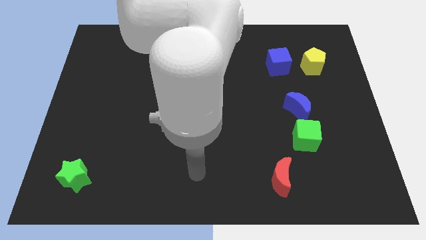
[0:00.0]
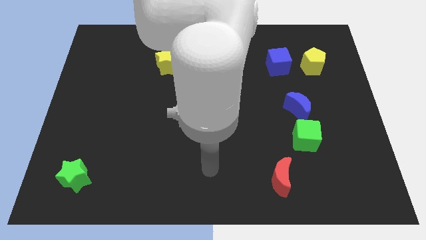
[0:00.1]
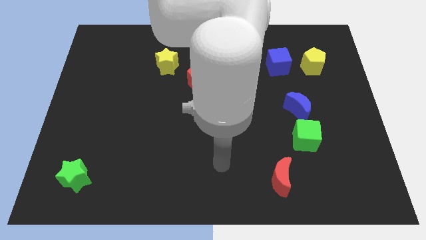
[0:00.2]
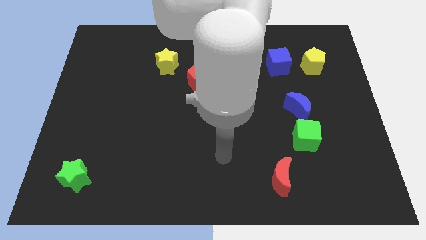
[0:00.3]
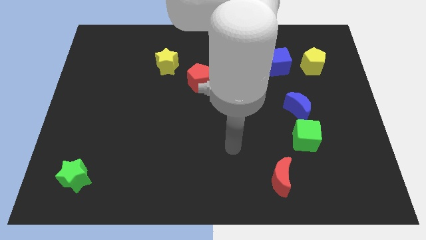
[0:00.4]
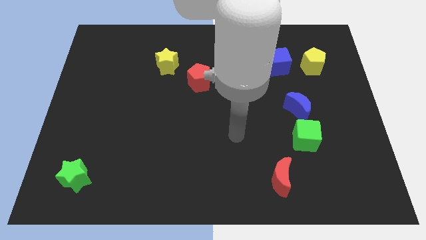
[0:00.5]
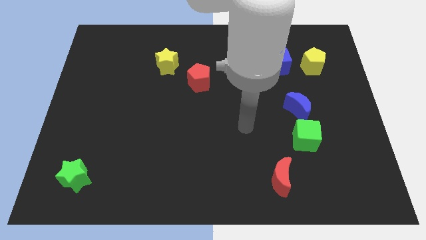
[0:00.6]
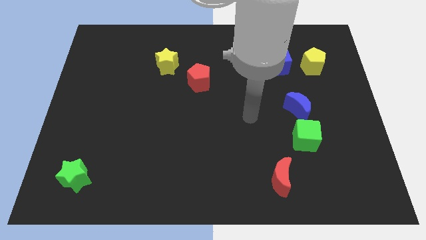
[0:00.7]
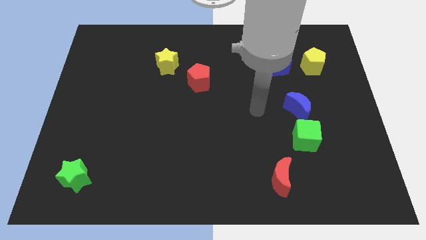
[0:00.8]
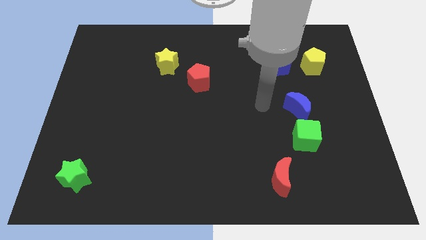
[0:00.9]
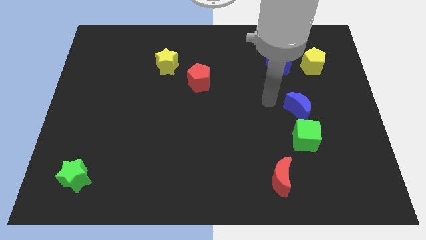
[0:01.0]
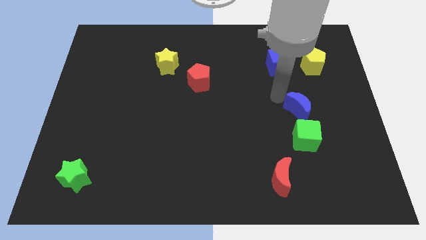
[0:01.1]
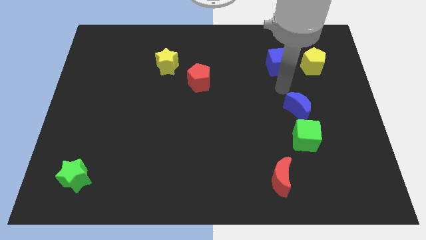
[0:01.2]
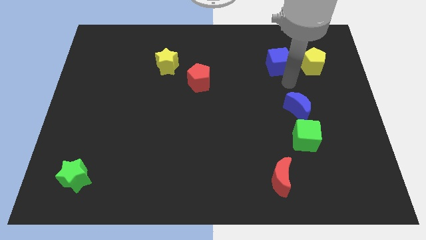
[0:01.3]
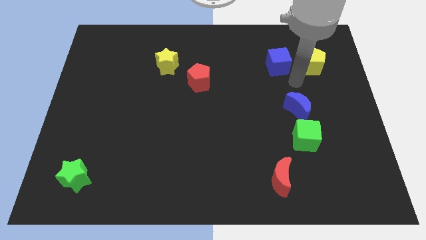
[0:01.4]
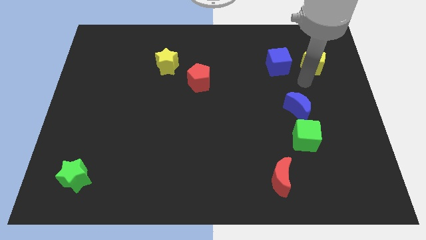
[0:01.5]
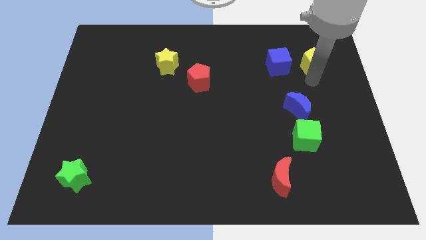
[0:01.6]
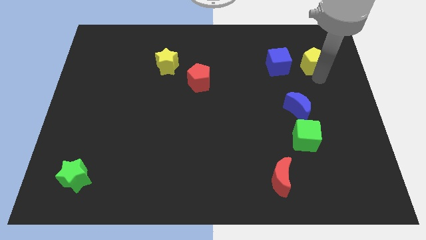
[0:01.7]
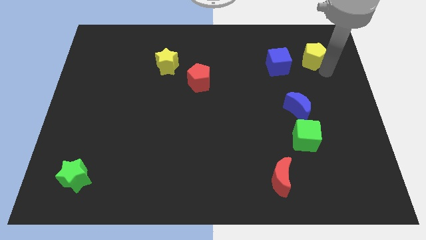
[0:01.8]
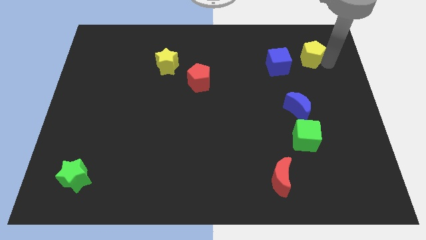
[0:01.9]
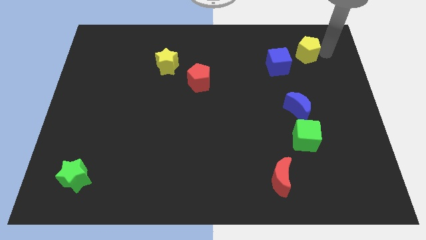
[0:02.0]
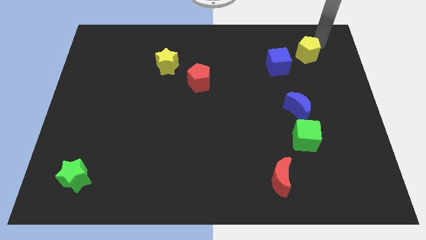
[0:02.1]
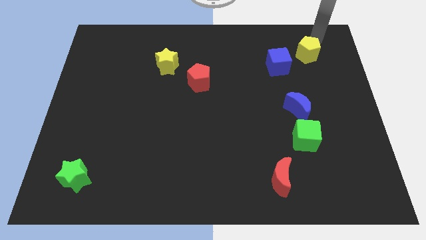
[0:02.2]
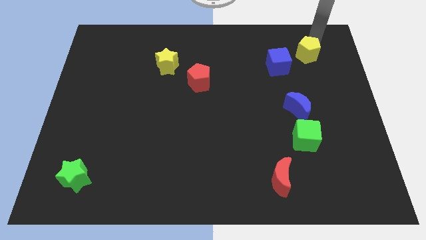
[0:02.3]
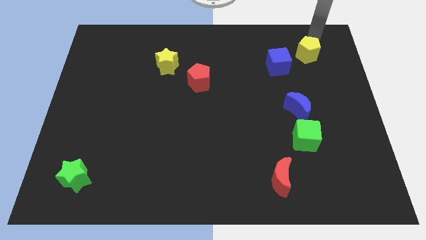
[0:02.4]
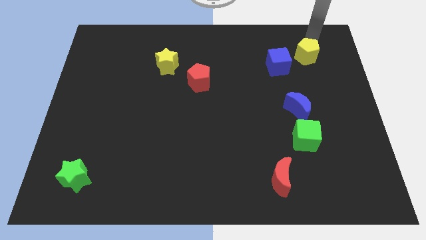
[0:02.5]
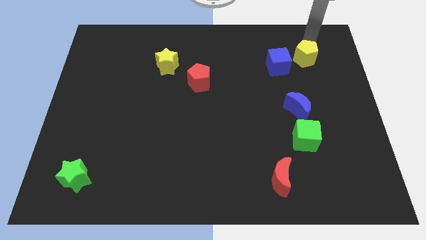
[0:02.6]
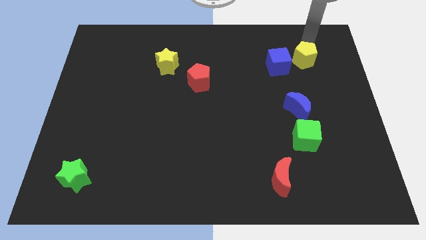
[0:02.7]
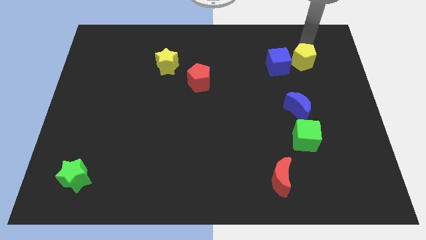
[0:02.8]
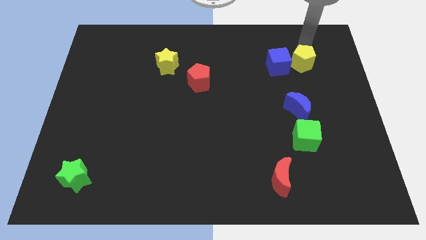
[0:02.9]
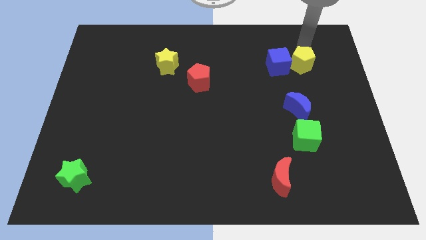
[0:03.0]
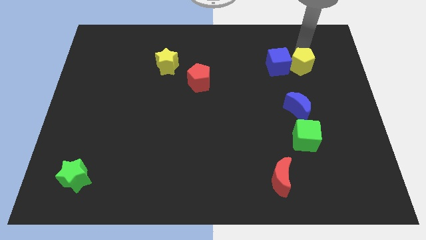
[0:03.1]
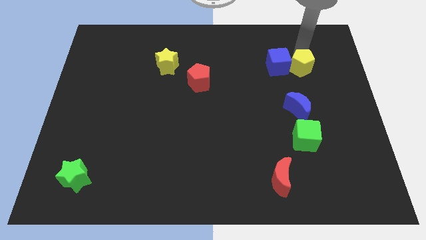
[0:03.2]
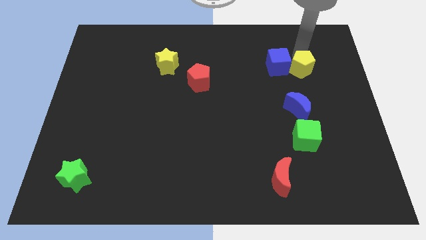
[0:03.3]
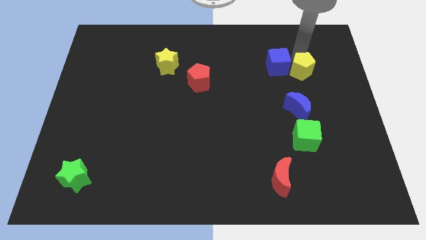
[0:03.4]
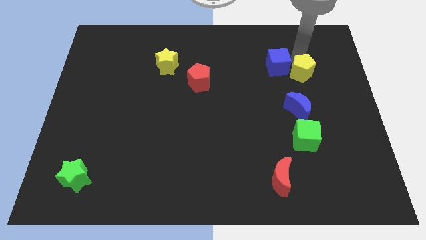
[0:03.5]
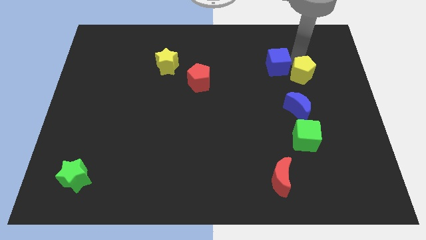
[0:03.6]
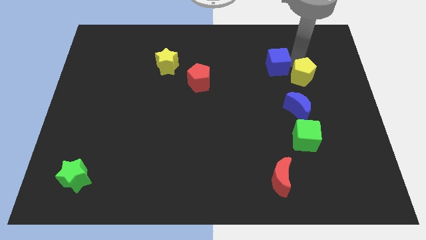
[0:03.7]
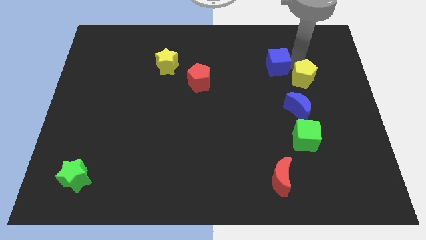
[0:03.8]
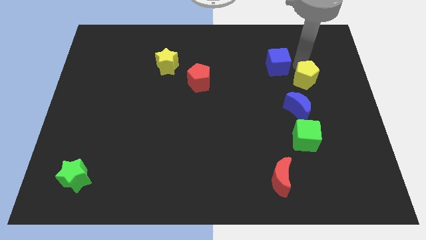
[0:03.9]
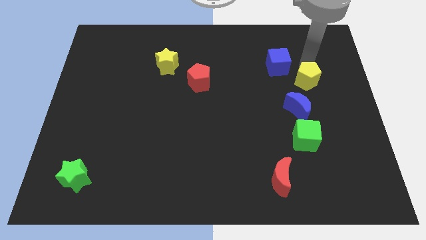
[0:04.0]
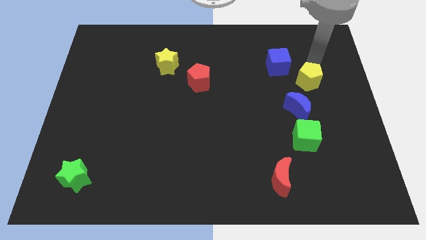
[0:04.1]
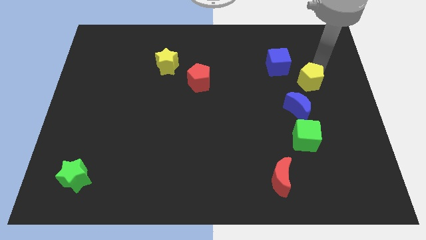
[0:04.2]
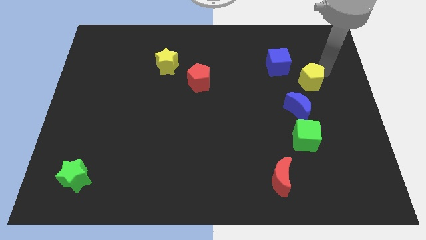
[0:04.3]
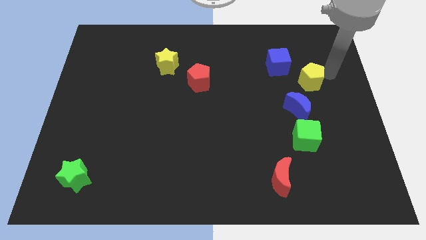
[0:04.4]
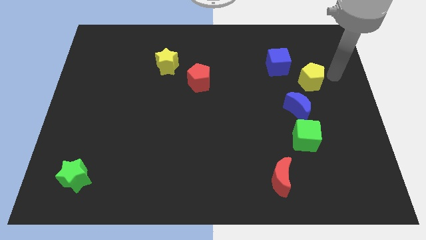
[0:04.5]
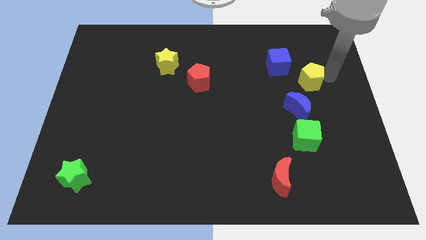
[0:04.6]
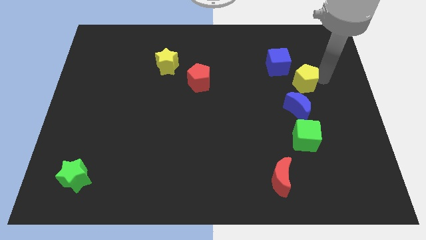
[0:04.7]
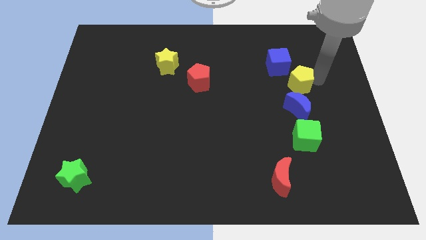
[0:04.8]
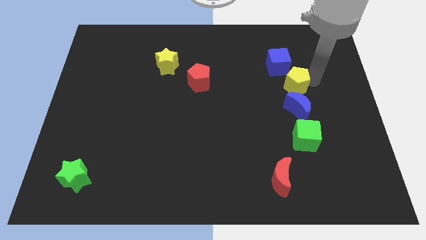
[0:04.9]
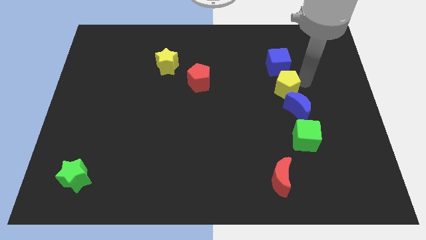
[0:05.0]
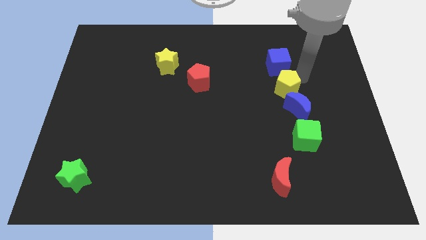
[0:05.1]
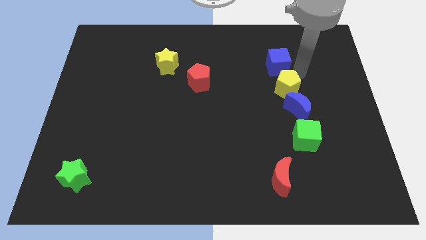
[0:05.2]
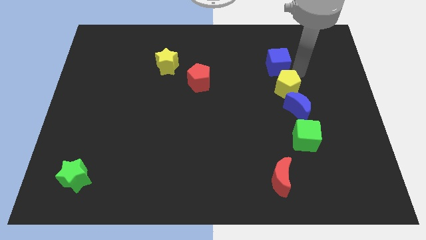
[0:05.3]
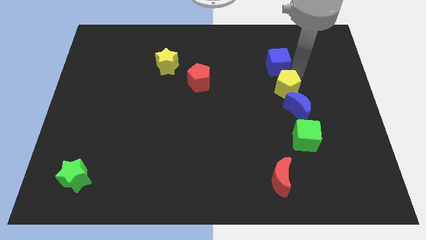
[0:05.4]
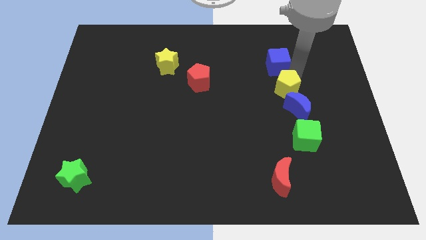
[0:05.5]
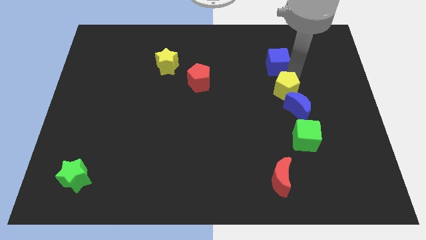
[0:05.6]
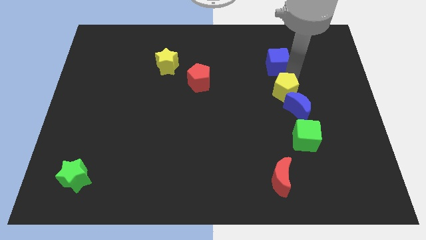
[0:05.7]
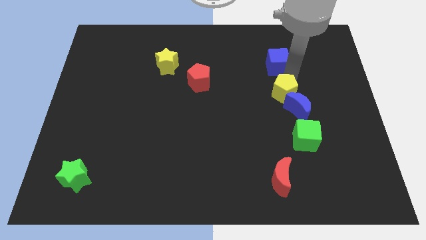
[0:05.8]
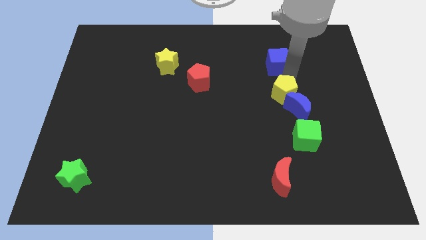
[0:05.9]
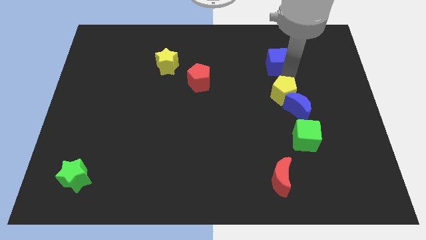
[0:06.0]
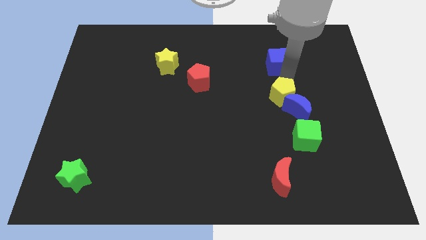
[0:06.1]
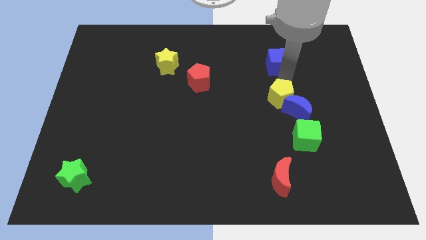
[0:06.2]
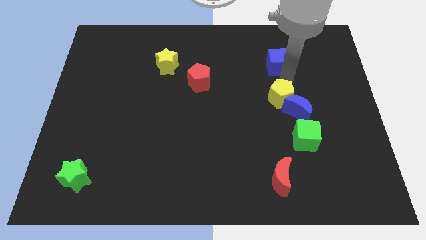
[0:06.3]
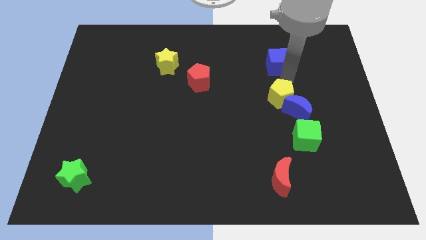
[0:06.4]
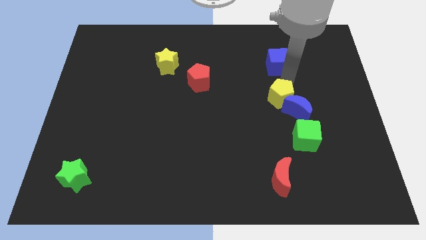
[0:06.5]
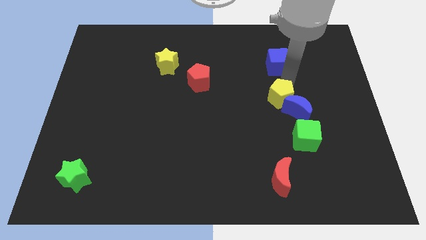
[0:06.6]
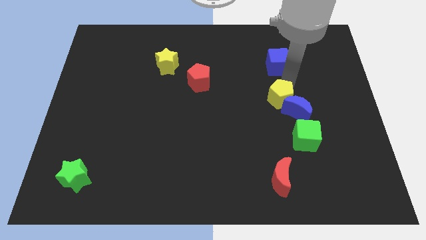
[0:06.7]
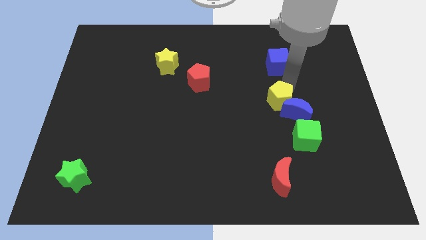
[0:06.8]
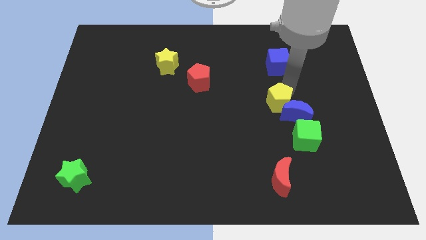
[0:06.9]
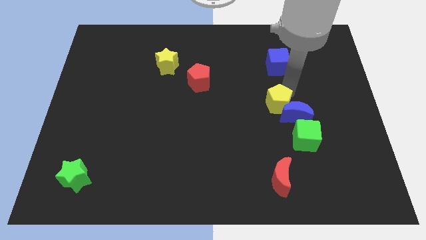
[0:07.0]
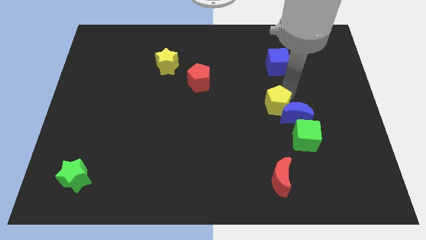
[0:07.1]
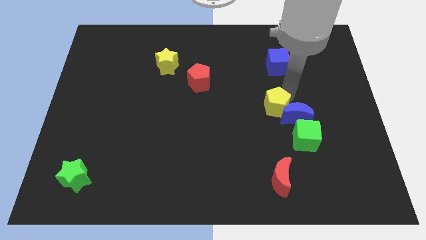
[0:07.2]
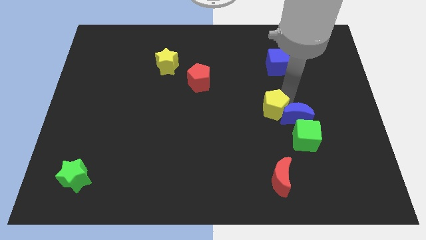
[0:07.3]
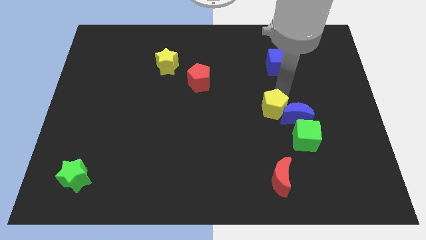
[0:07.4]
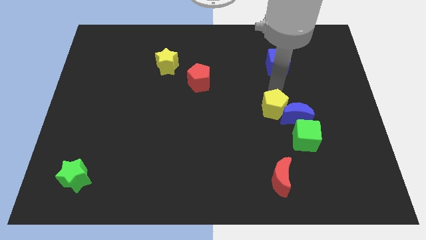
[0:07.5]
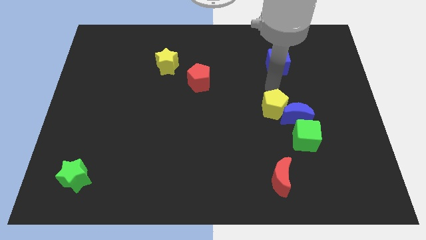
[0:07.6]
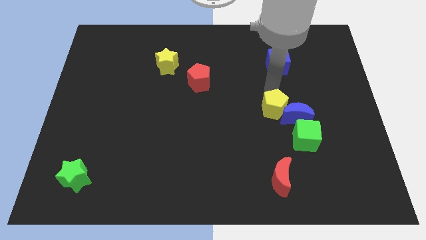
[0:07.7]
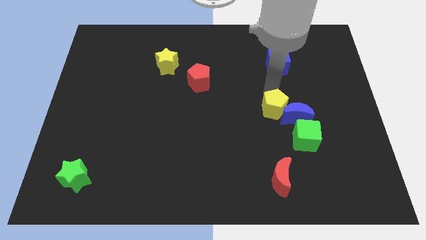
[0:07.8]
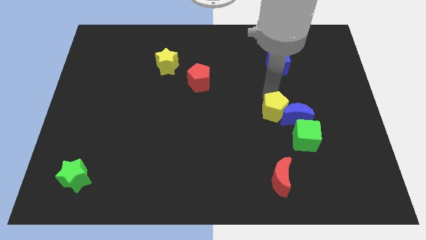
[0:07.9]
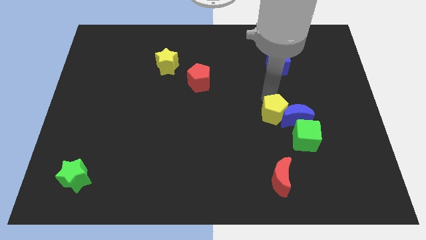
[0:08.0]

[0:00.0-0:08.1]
put the yellow pentagon to the bottom left side of the blue moon
